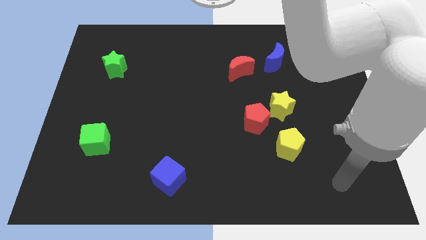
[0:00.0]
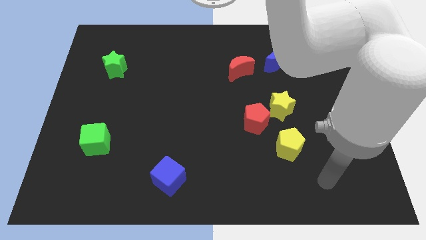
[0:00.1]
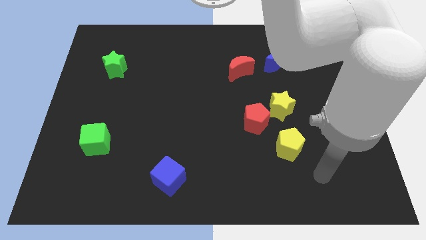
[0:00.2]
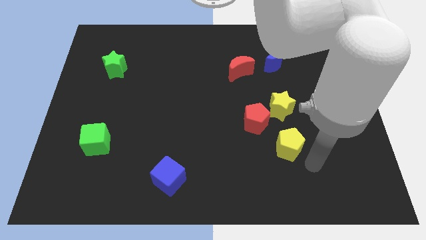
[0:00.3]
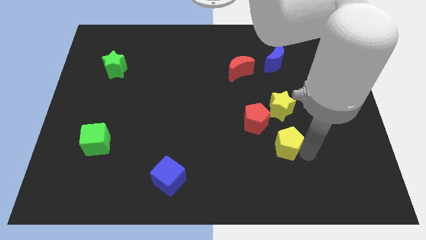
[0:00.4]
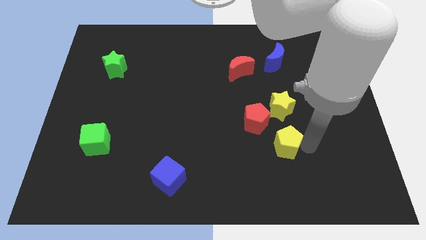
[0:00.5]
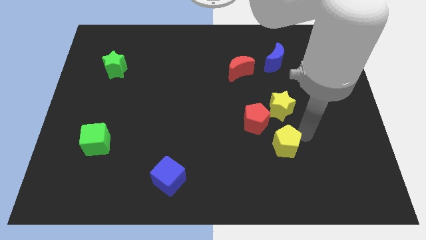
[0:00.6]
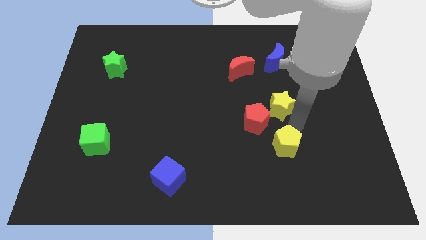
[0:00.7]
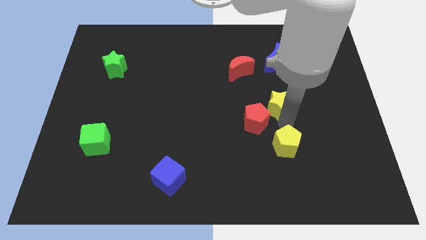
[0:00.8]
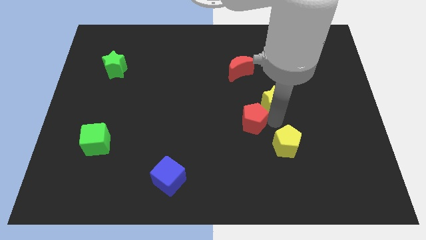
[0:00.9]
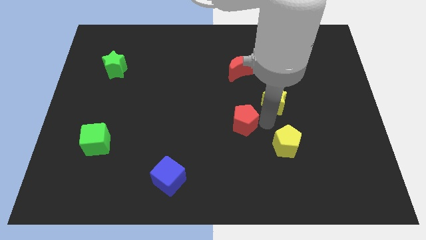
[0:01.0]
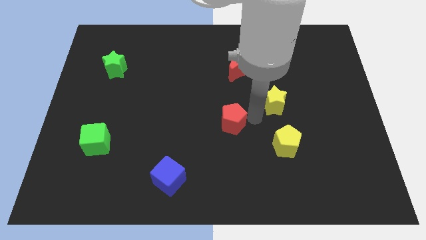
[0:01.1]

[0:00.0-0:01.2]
pull the yellow star apart from the red pentagon

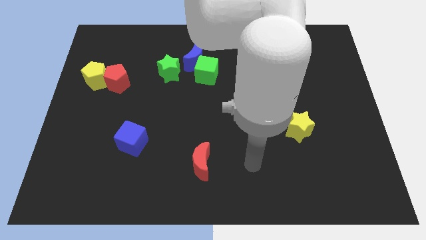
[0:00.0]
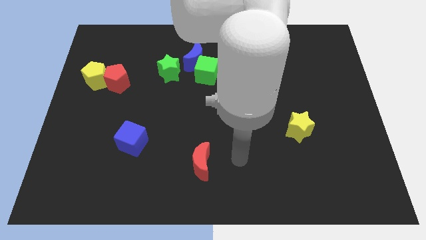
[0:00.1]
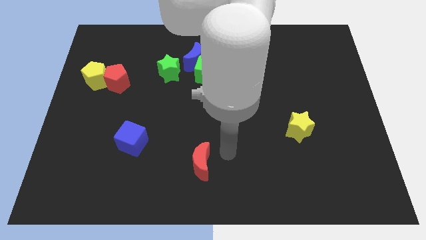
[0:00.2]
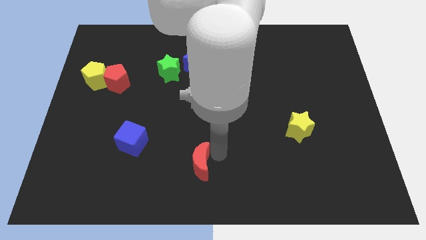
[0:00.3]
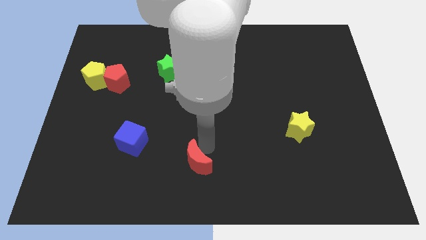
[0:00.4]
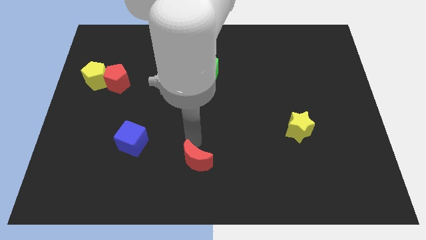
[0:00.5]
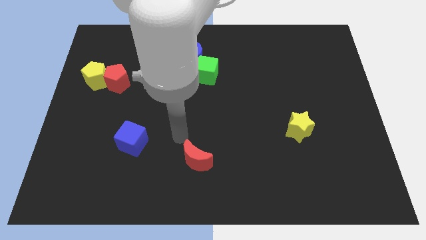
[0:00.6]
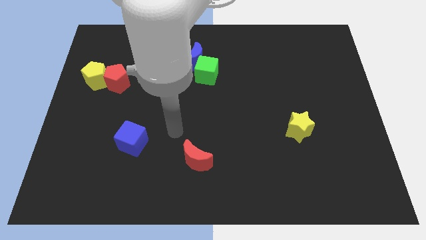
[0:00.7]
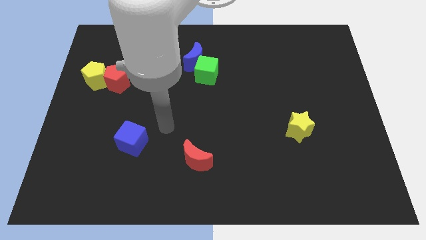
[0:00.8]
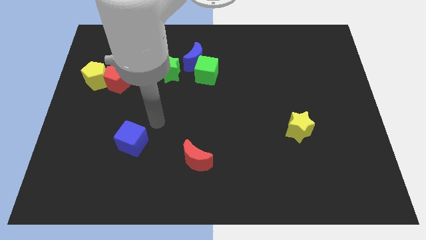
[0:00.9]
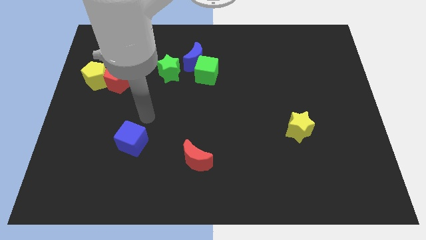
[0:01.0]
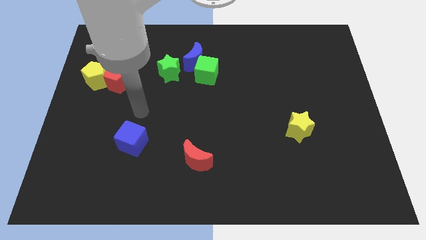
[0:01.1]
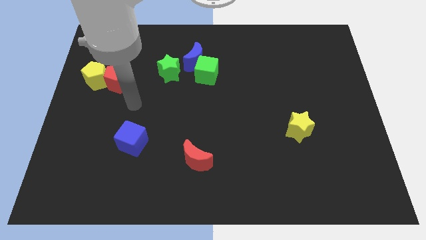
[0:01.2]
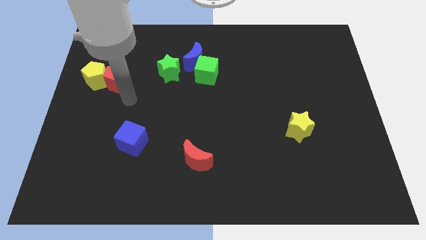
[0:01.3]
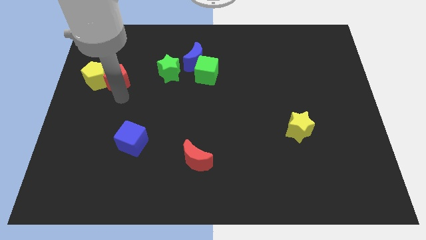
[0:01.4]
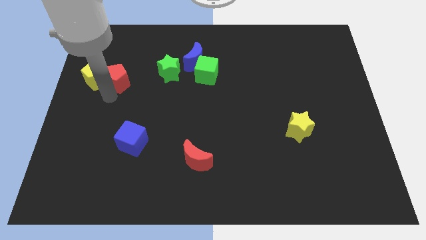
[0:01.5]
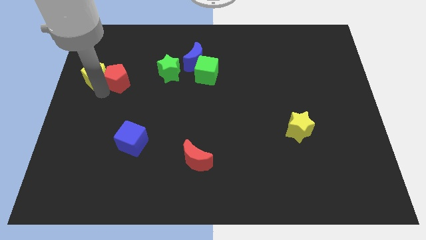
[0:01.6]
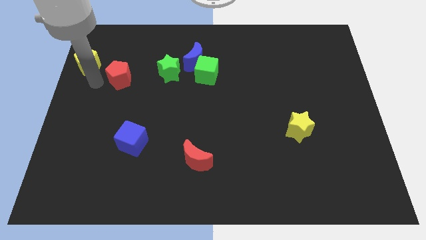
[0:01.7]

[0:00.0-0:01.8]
separate the red pentagon from the yellow pentagon

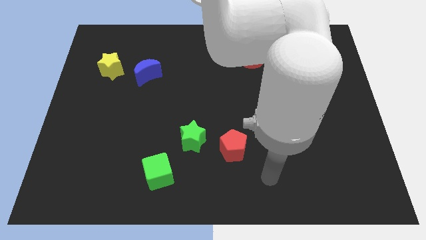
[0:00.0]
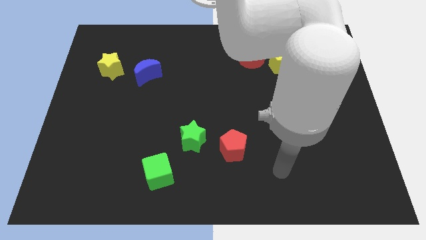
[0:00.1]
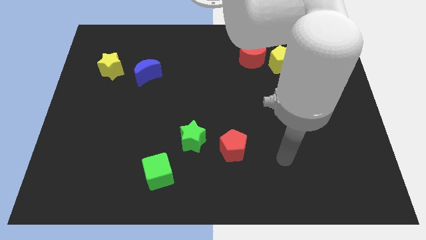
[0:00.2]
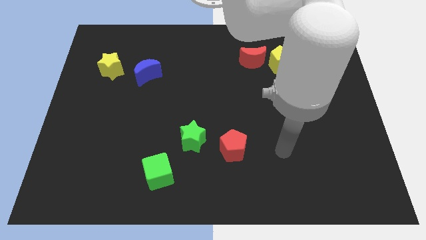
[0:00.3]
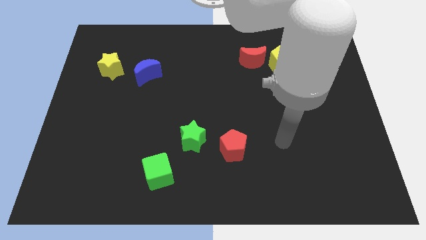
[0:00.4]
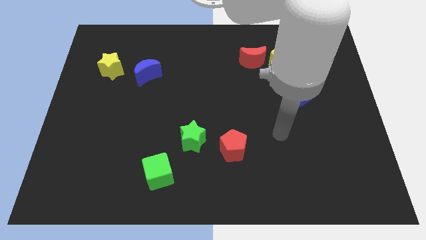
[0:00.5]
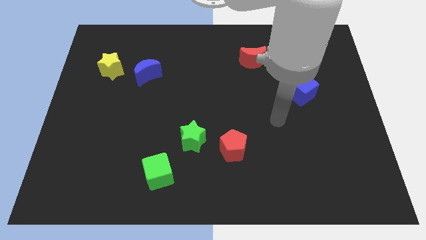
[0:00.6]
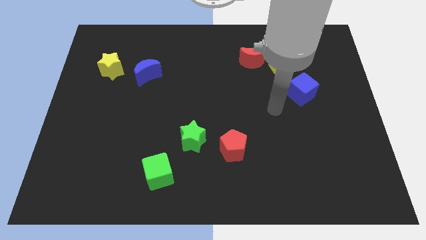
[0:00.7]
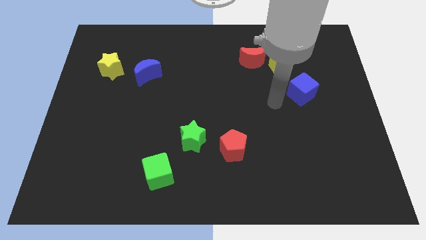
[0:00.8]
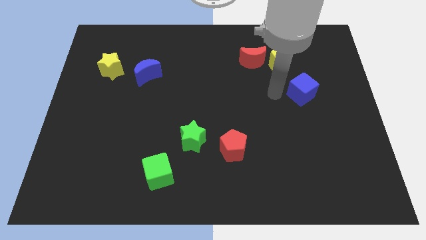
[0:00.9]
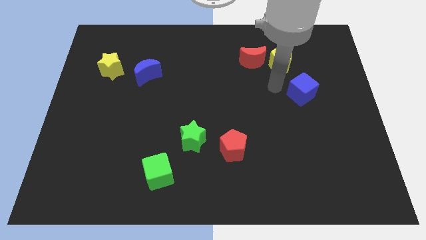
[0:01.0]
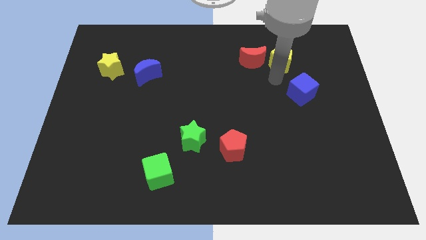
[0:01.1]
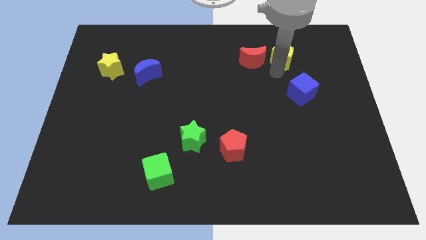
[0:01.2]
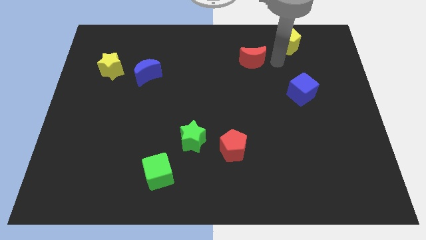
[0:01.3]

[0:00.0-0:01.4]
pull the red moon apart from the yellow pentagon

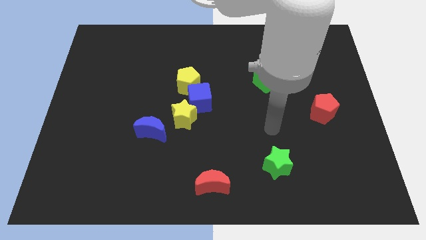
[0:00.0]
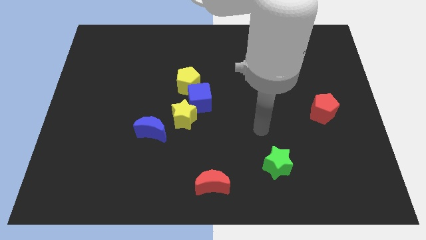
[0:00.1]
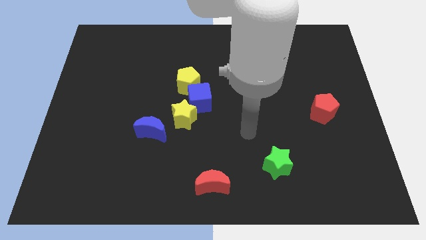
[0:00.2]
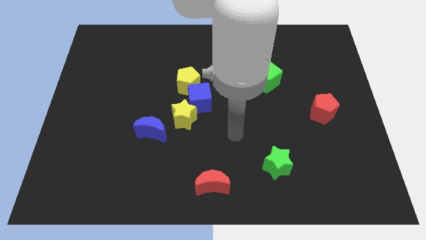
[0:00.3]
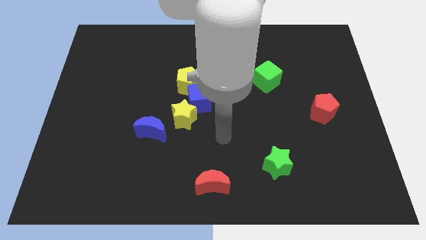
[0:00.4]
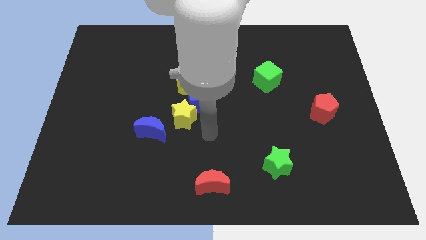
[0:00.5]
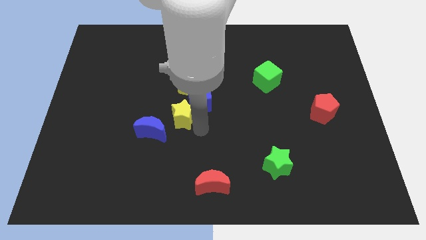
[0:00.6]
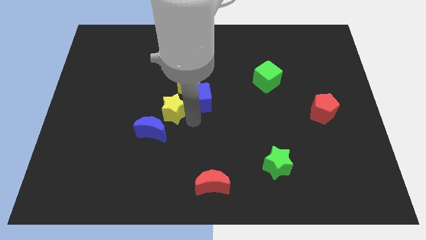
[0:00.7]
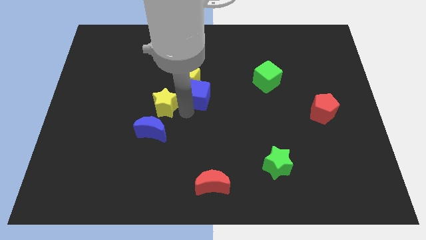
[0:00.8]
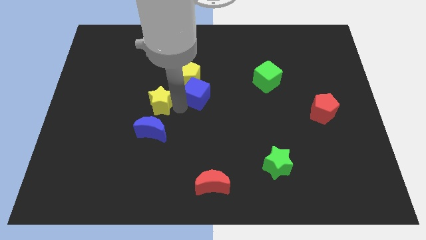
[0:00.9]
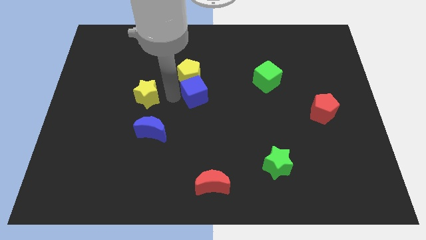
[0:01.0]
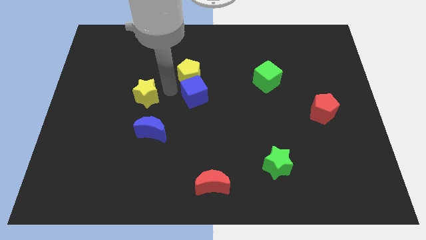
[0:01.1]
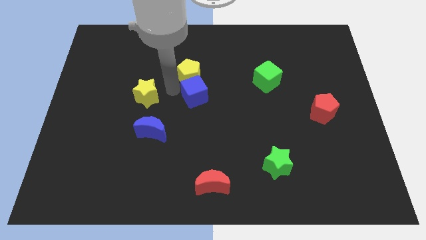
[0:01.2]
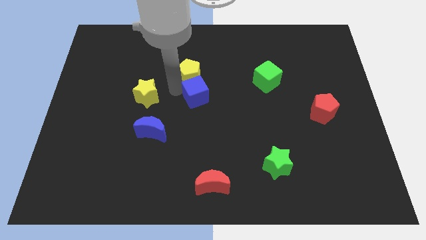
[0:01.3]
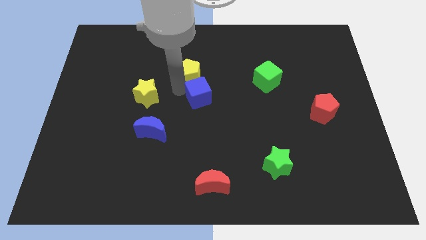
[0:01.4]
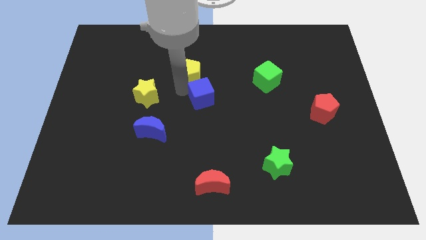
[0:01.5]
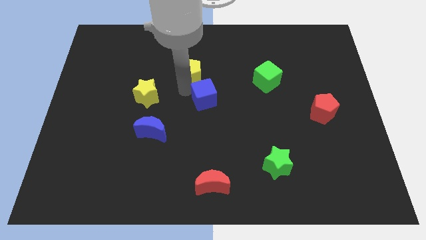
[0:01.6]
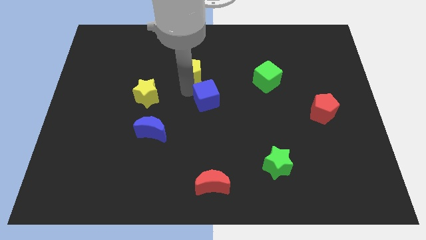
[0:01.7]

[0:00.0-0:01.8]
pull the blue cube apart from the yellow star and yellow pentagon

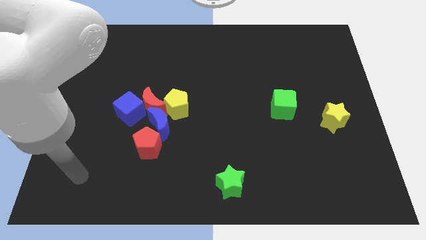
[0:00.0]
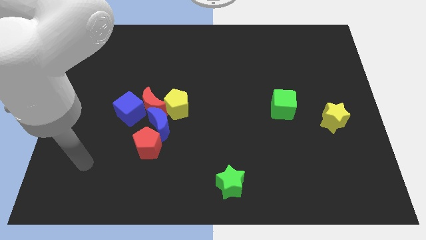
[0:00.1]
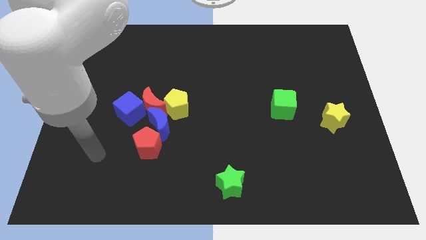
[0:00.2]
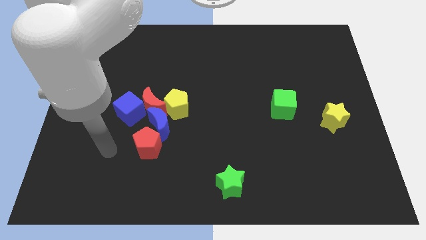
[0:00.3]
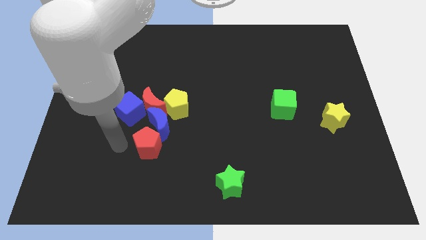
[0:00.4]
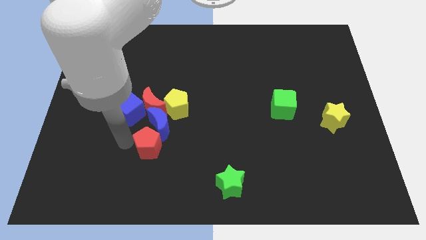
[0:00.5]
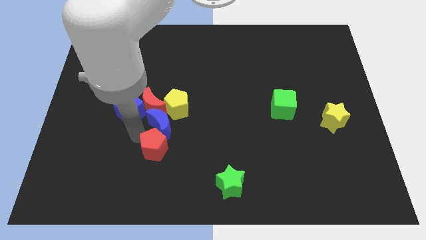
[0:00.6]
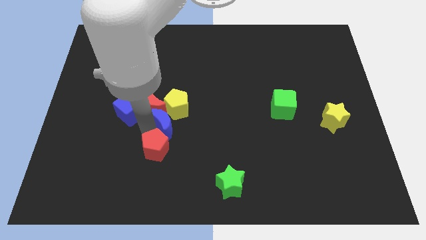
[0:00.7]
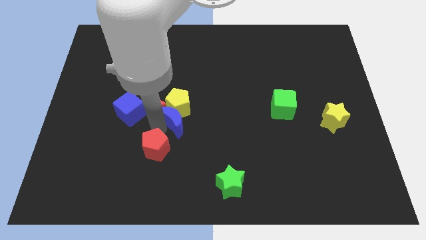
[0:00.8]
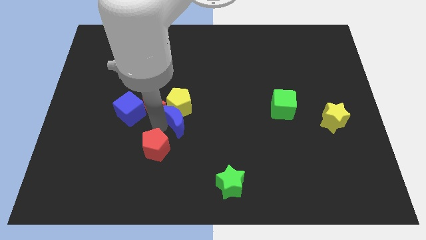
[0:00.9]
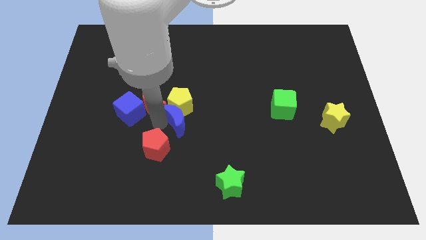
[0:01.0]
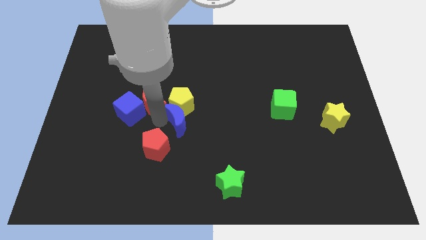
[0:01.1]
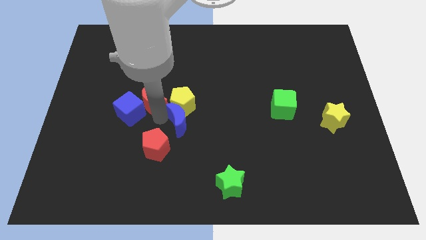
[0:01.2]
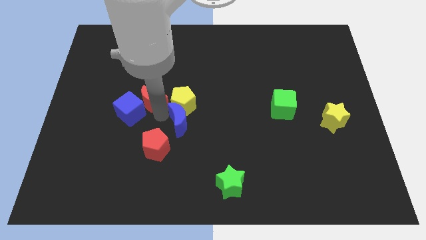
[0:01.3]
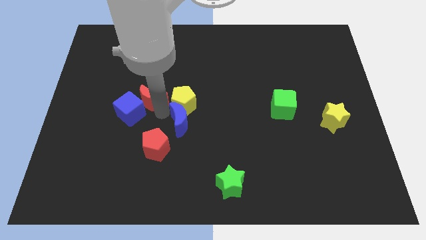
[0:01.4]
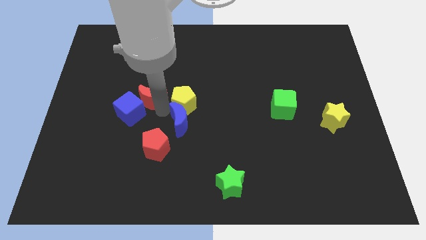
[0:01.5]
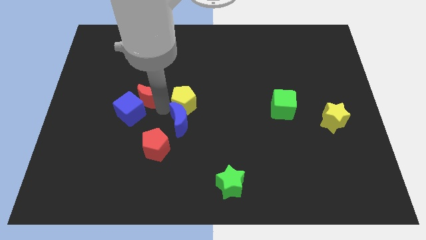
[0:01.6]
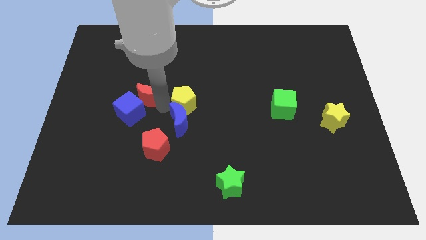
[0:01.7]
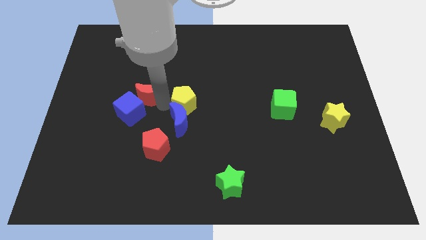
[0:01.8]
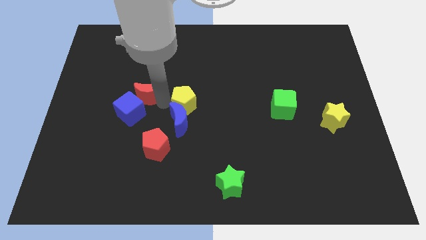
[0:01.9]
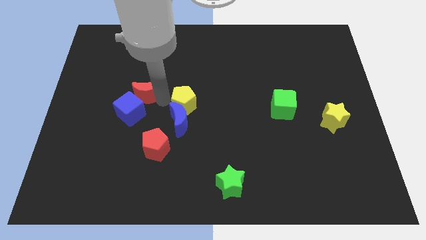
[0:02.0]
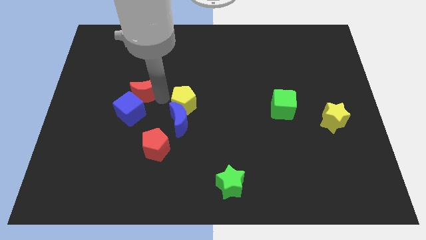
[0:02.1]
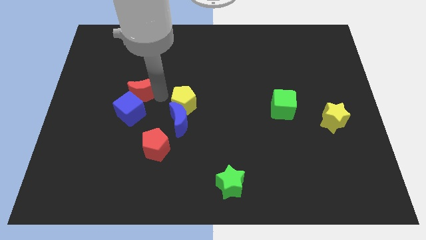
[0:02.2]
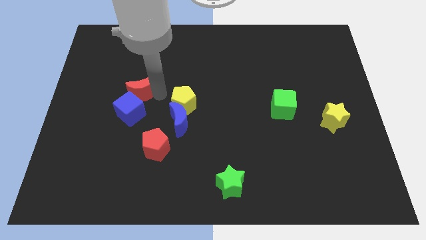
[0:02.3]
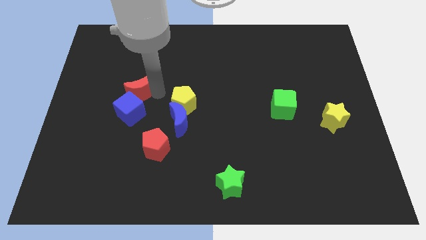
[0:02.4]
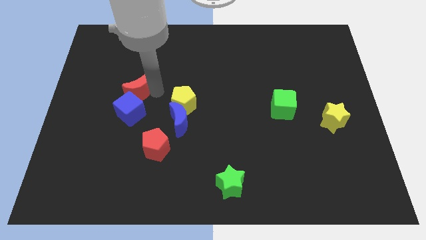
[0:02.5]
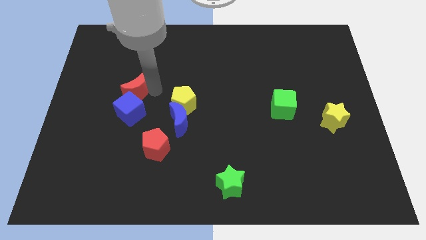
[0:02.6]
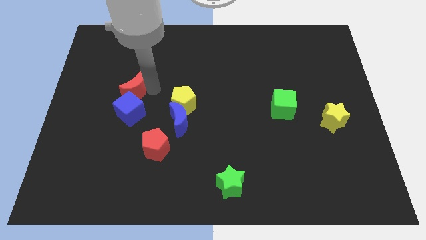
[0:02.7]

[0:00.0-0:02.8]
separate the red moon from the blue cube, blue moon, and yellow pentagon
